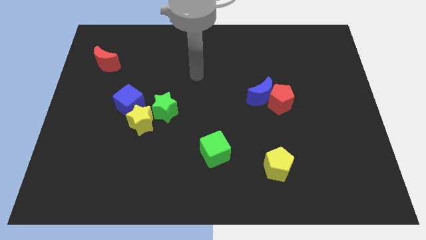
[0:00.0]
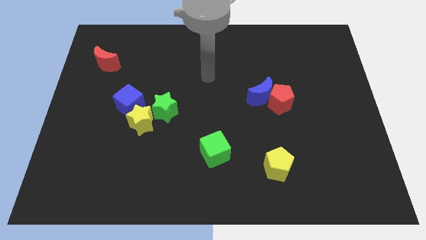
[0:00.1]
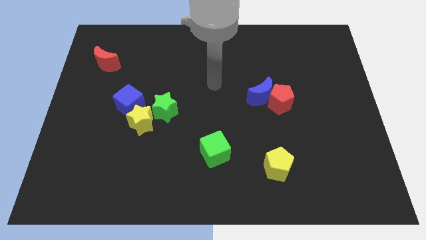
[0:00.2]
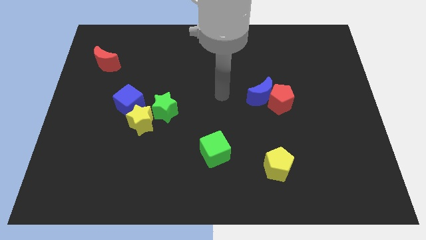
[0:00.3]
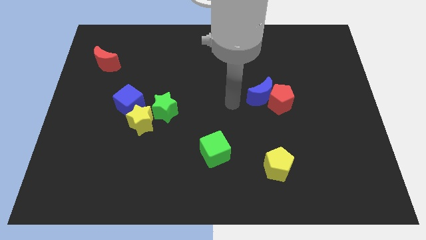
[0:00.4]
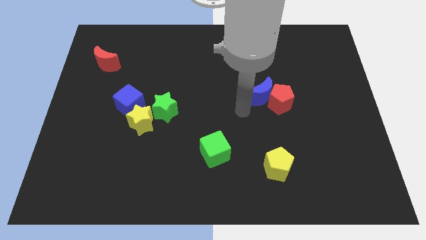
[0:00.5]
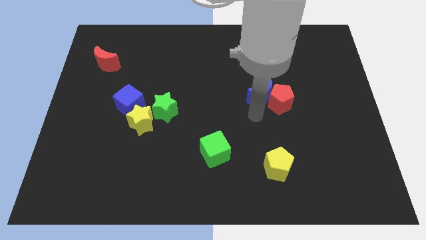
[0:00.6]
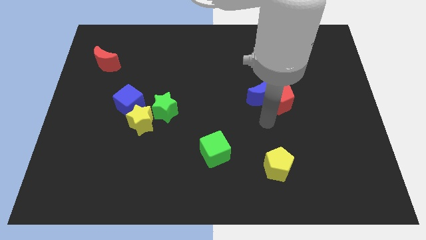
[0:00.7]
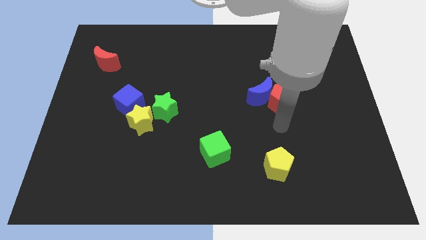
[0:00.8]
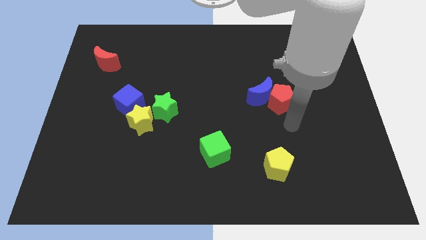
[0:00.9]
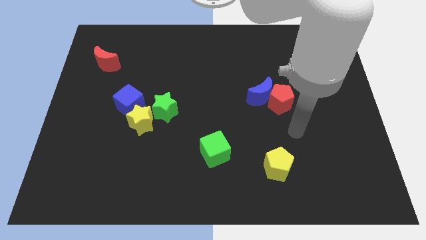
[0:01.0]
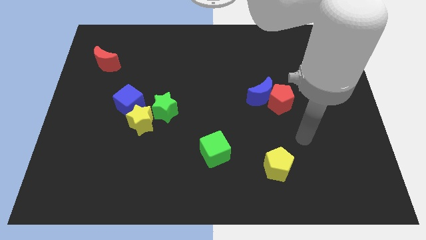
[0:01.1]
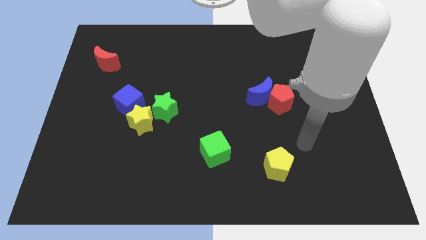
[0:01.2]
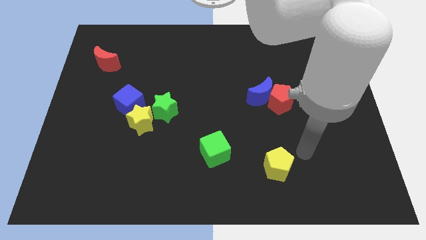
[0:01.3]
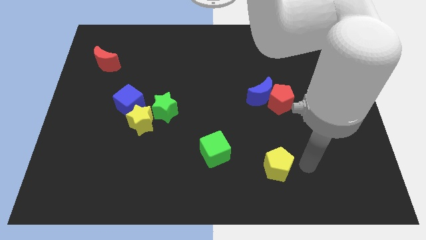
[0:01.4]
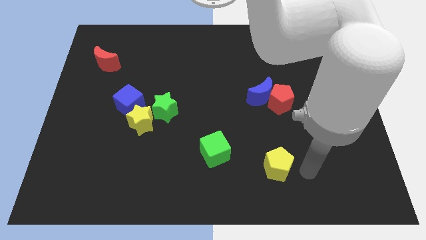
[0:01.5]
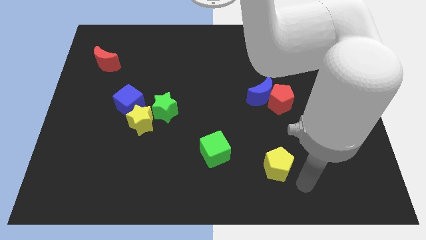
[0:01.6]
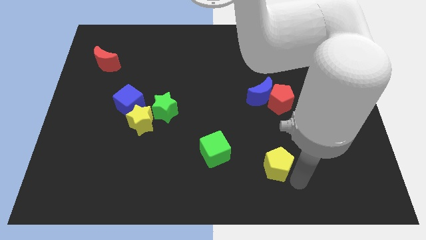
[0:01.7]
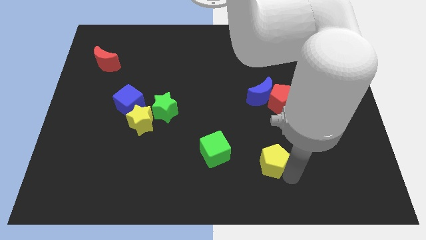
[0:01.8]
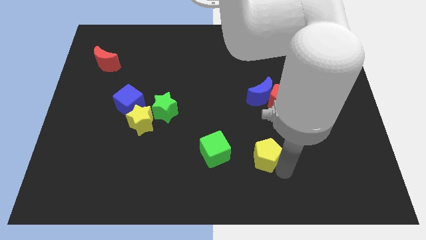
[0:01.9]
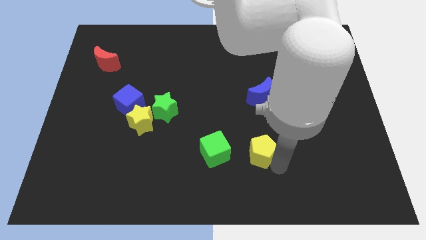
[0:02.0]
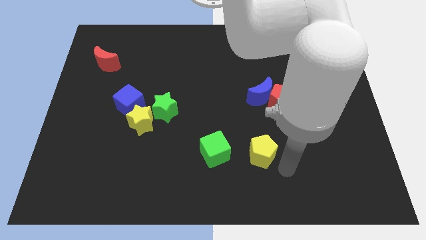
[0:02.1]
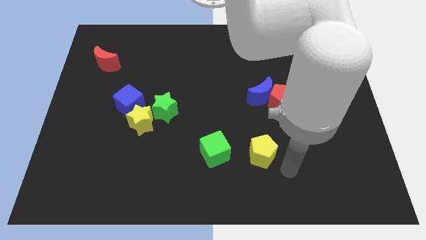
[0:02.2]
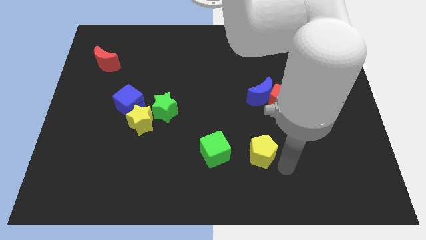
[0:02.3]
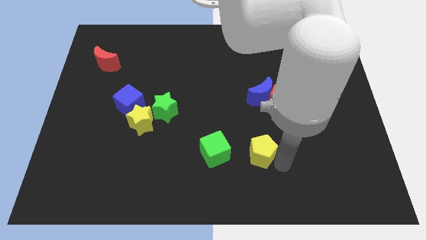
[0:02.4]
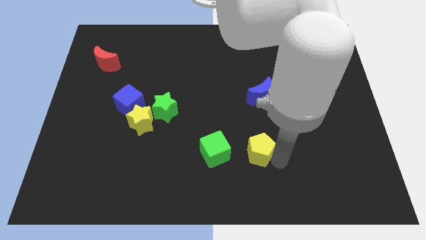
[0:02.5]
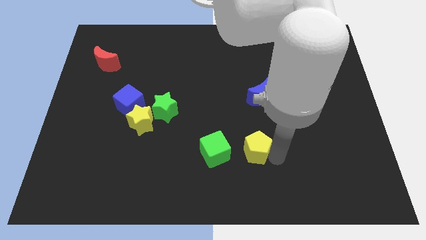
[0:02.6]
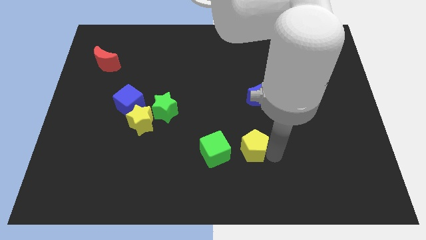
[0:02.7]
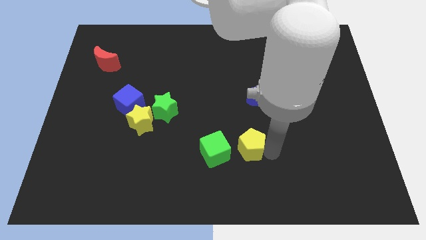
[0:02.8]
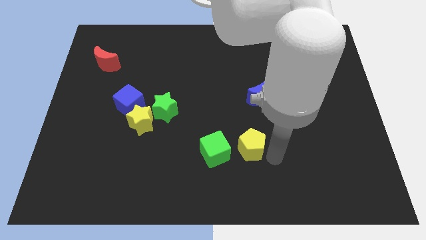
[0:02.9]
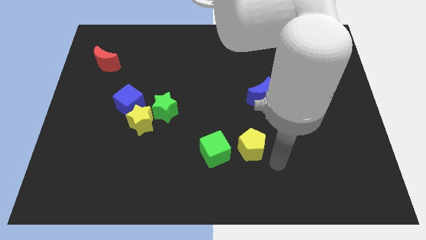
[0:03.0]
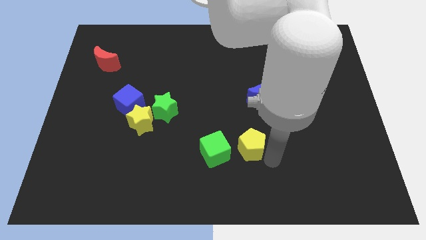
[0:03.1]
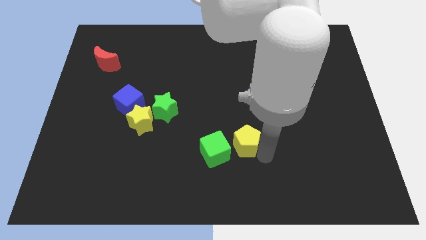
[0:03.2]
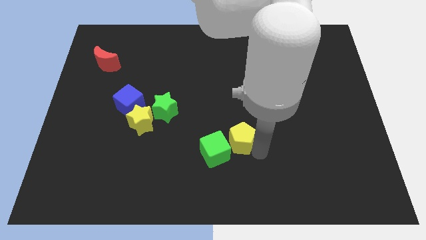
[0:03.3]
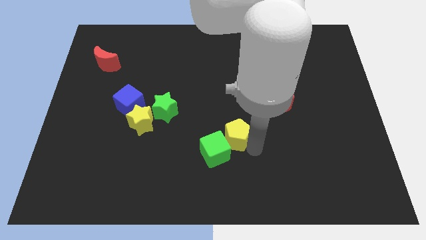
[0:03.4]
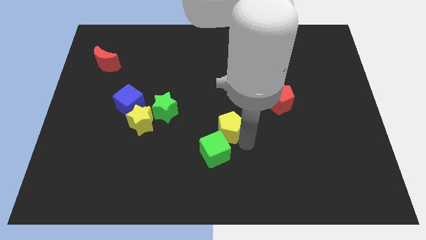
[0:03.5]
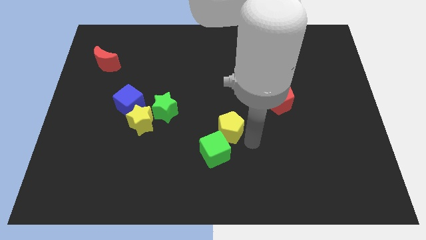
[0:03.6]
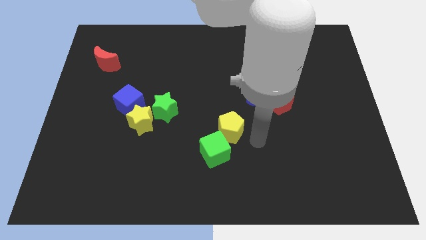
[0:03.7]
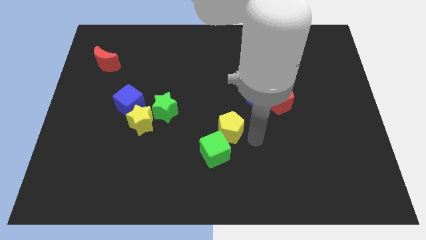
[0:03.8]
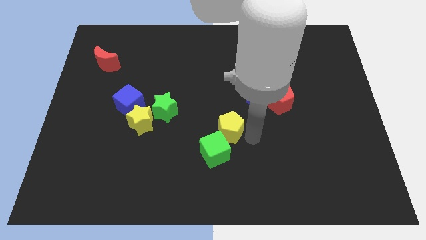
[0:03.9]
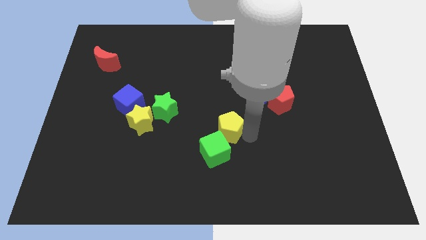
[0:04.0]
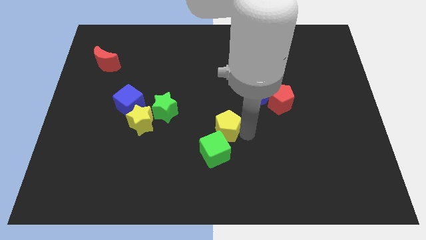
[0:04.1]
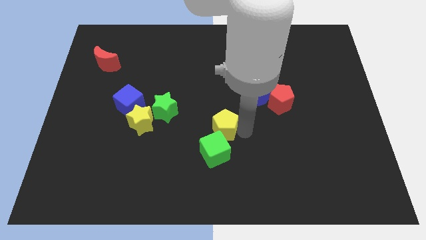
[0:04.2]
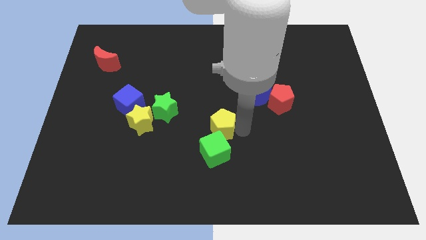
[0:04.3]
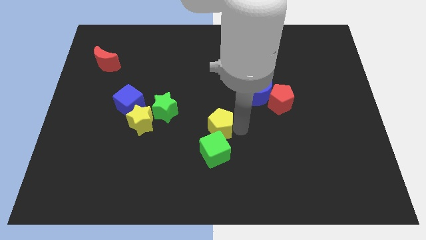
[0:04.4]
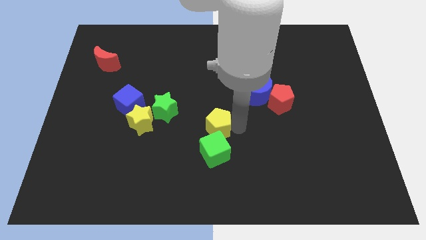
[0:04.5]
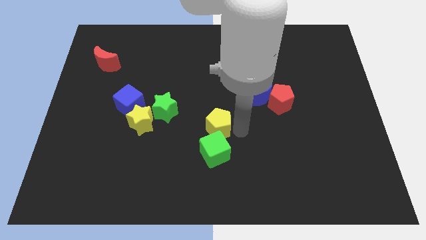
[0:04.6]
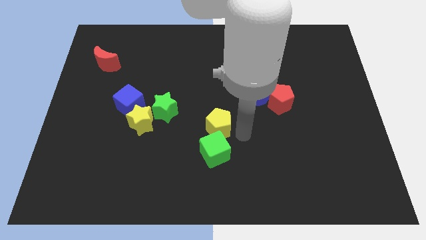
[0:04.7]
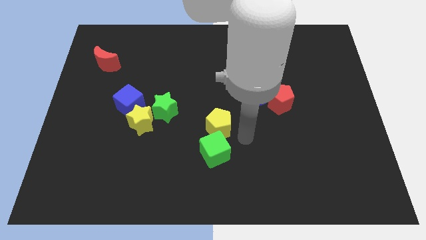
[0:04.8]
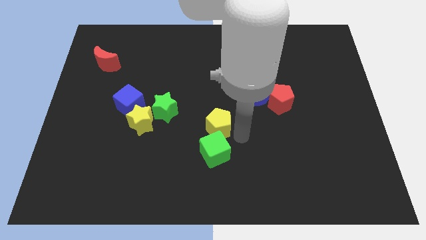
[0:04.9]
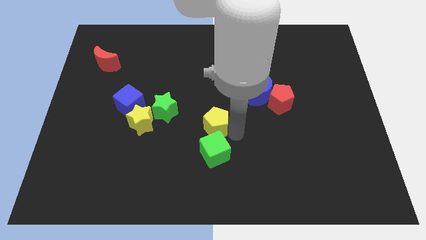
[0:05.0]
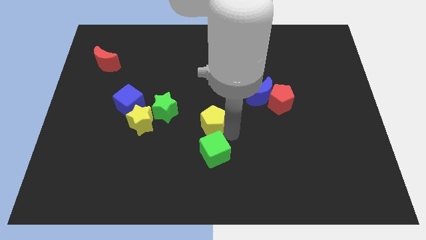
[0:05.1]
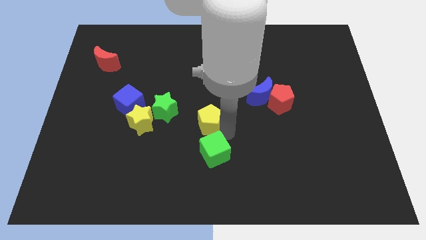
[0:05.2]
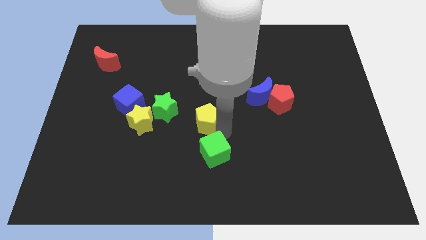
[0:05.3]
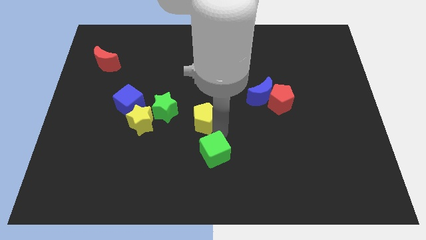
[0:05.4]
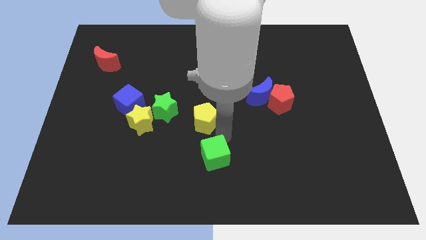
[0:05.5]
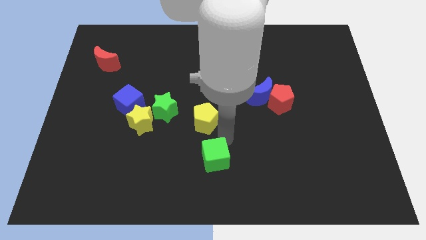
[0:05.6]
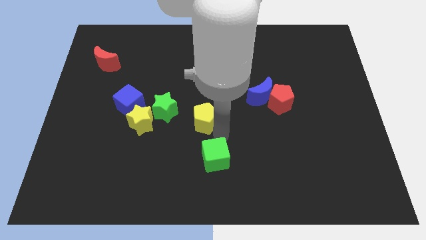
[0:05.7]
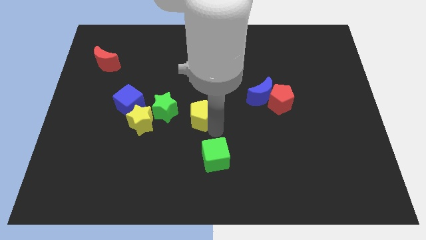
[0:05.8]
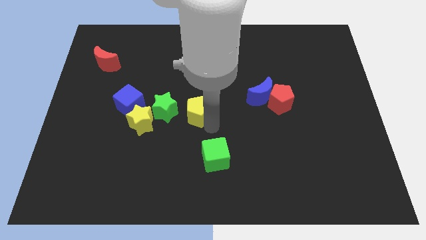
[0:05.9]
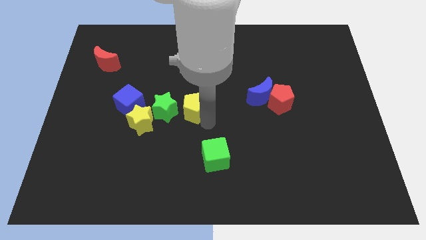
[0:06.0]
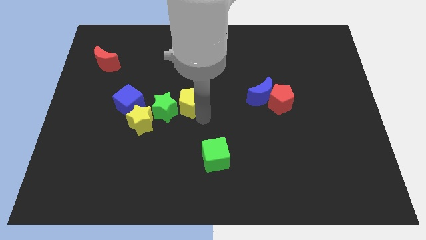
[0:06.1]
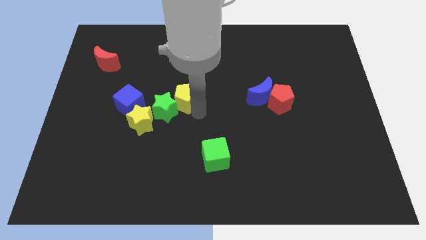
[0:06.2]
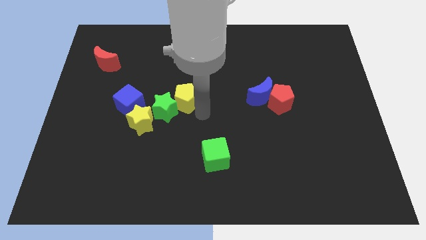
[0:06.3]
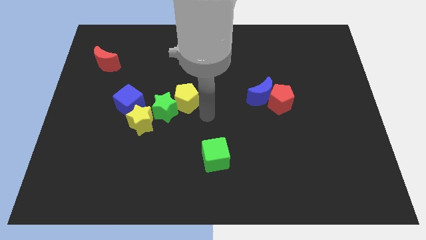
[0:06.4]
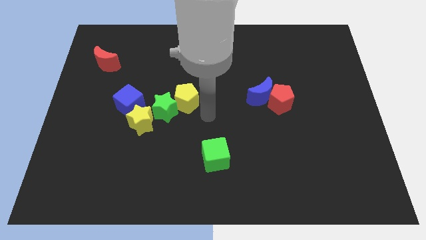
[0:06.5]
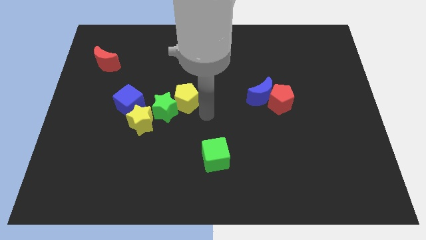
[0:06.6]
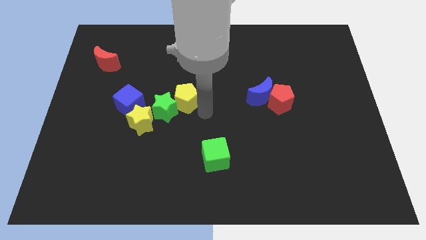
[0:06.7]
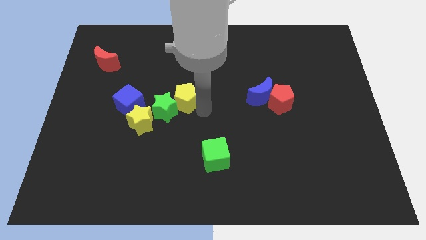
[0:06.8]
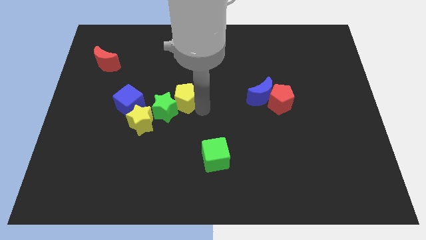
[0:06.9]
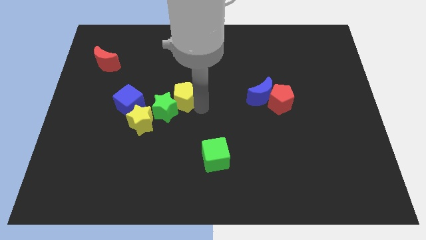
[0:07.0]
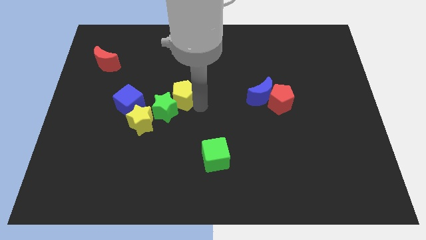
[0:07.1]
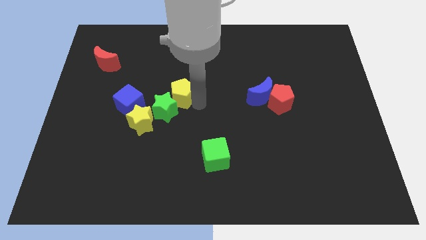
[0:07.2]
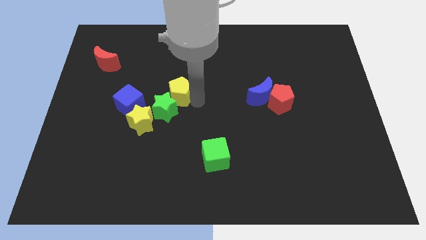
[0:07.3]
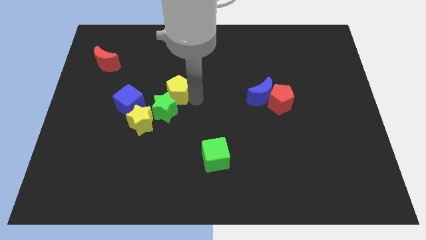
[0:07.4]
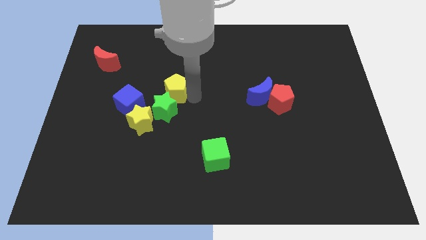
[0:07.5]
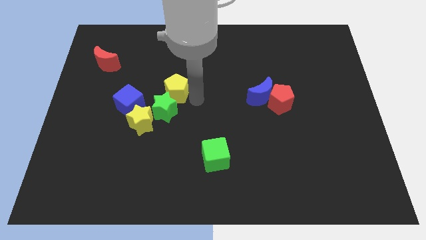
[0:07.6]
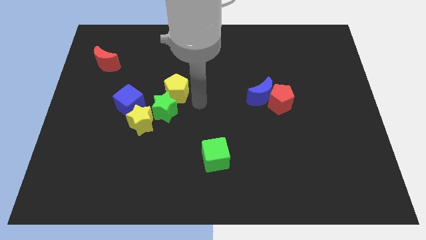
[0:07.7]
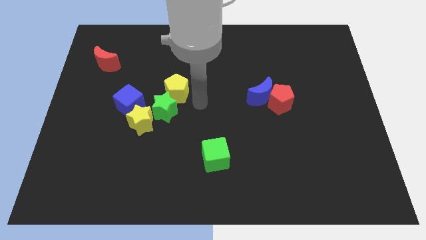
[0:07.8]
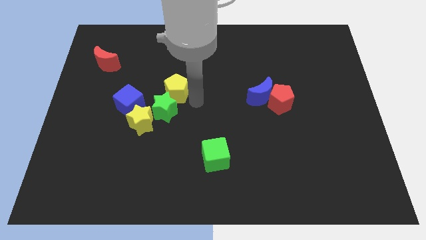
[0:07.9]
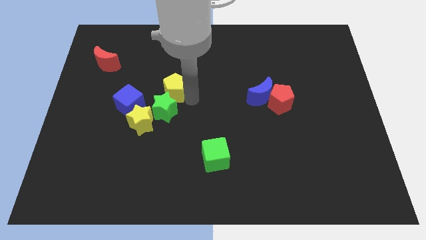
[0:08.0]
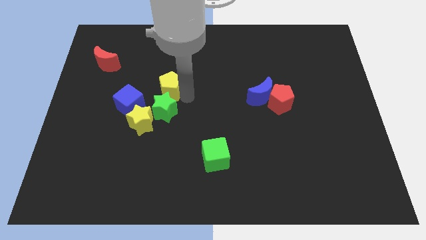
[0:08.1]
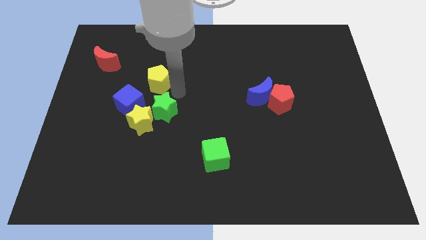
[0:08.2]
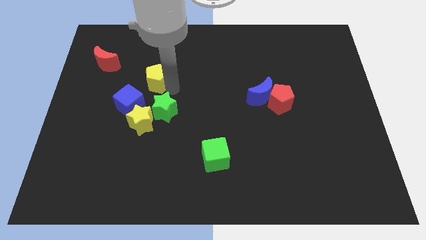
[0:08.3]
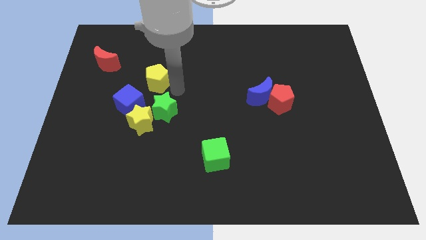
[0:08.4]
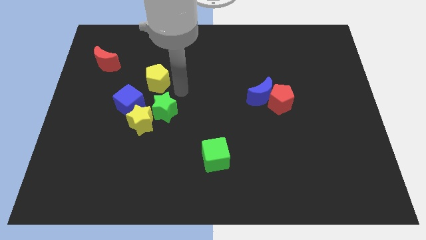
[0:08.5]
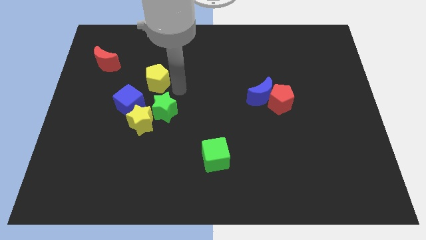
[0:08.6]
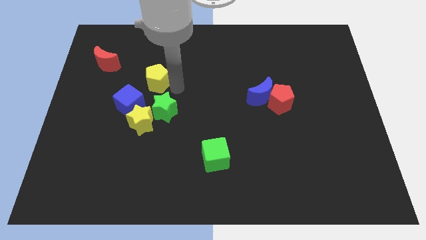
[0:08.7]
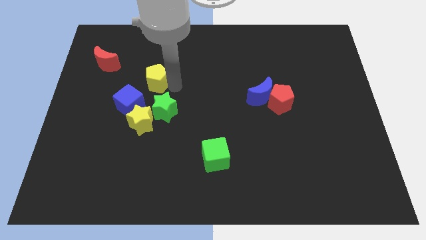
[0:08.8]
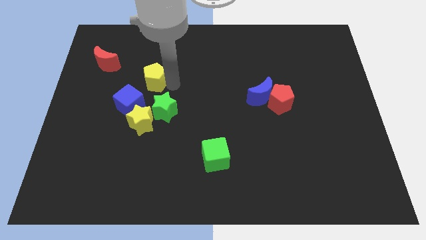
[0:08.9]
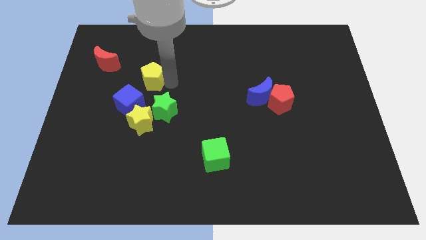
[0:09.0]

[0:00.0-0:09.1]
push the yellow pentagon above the blue cube
